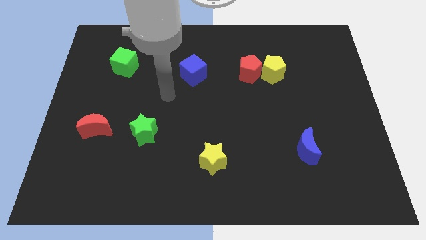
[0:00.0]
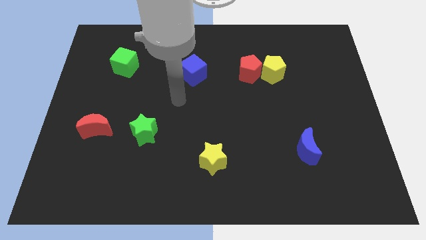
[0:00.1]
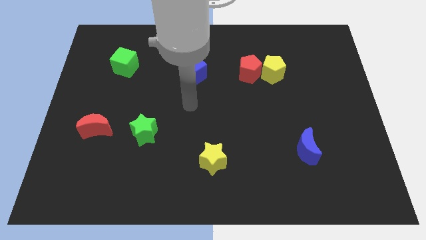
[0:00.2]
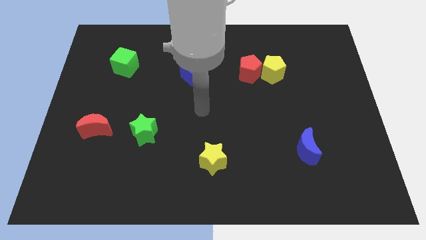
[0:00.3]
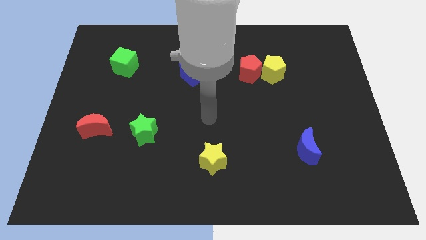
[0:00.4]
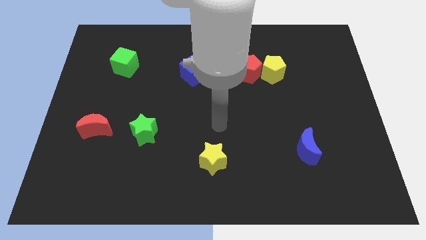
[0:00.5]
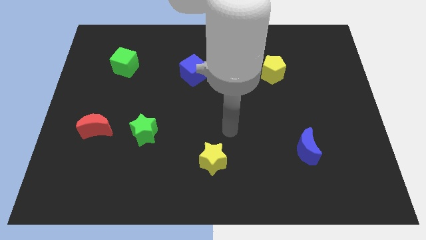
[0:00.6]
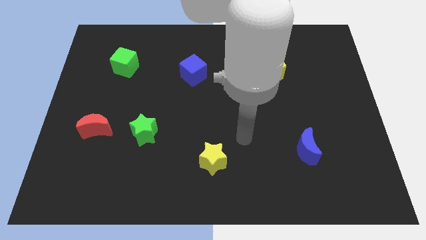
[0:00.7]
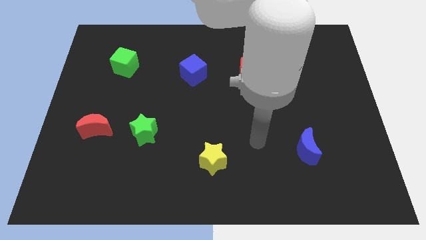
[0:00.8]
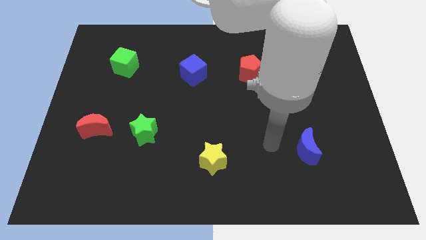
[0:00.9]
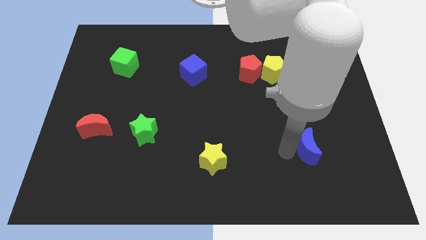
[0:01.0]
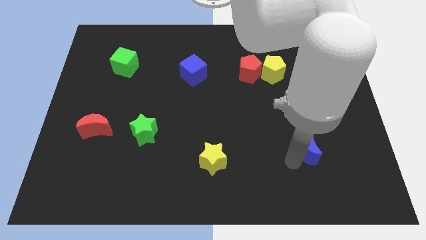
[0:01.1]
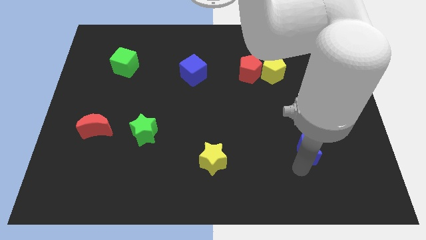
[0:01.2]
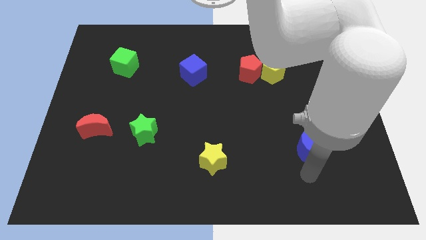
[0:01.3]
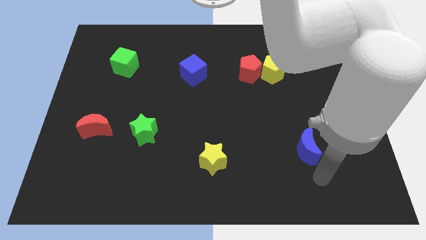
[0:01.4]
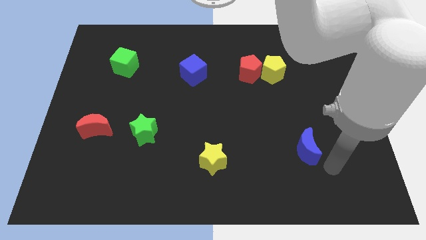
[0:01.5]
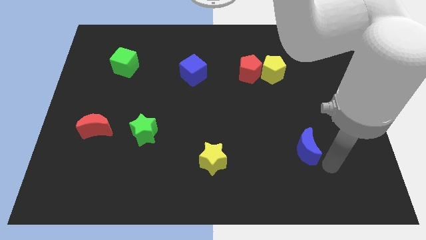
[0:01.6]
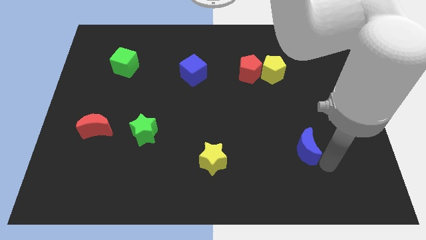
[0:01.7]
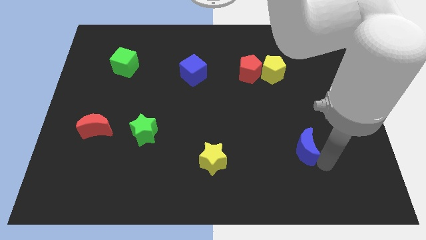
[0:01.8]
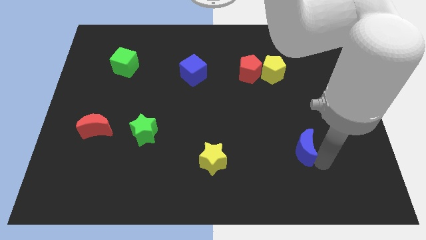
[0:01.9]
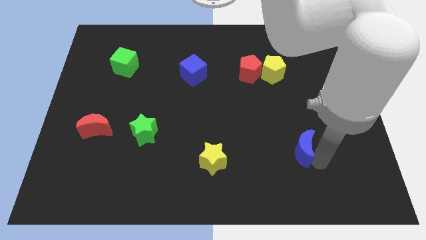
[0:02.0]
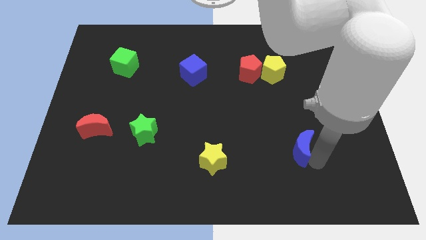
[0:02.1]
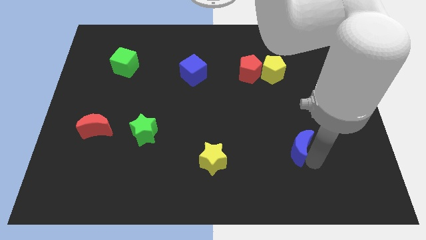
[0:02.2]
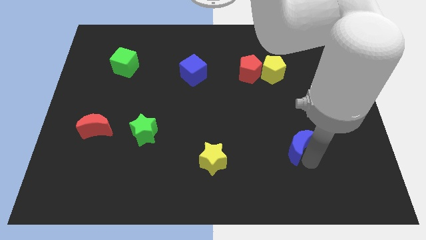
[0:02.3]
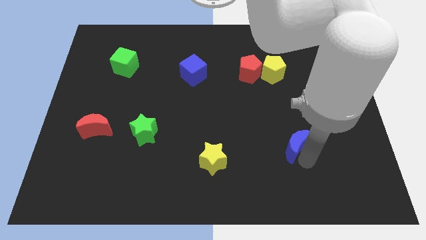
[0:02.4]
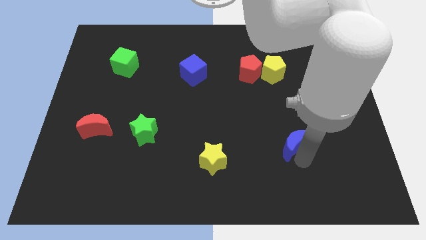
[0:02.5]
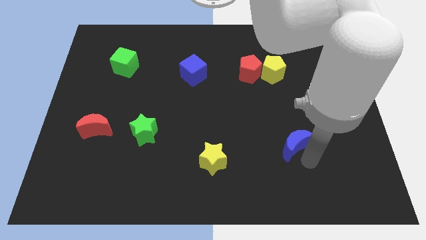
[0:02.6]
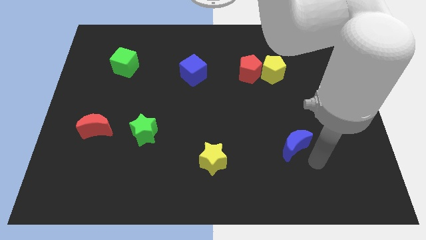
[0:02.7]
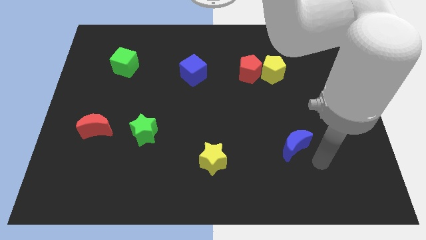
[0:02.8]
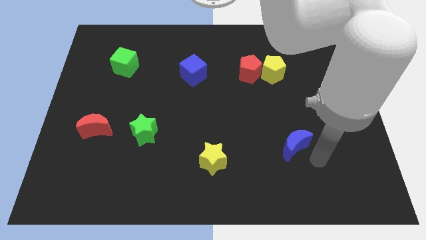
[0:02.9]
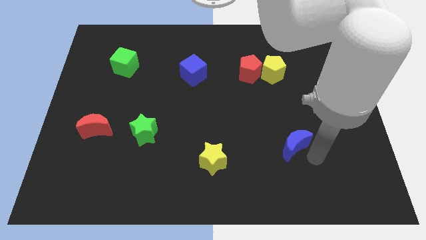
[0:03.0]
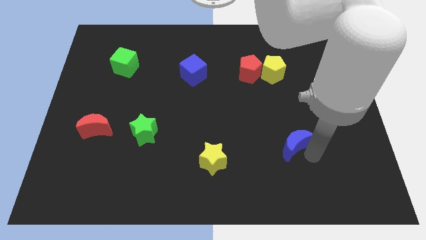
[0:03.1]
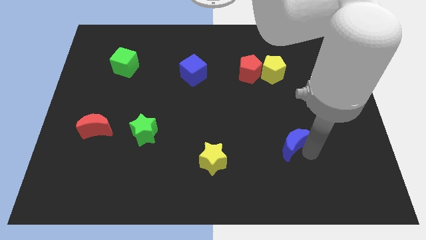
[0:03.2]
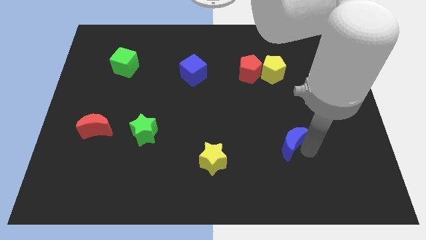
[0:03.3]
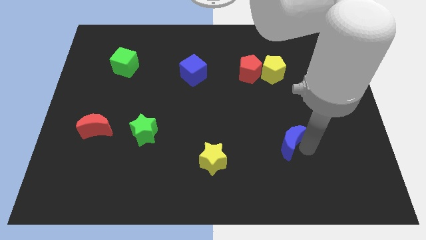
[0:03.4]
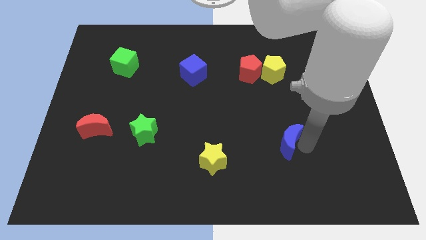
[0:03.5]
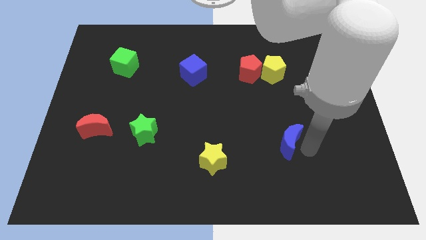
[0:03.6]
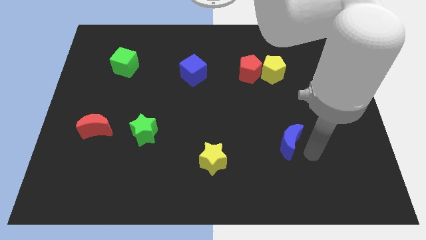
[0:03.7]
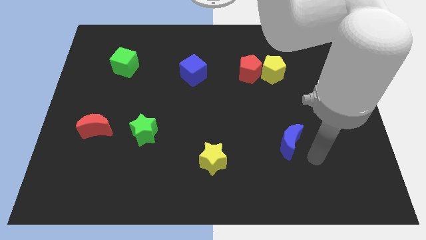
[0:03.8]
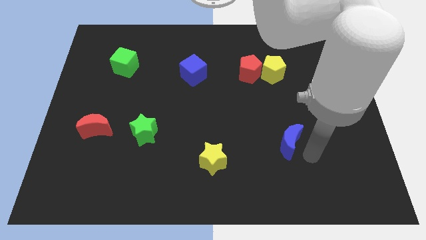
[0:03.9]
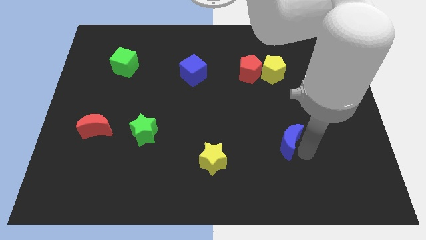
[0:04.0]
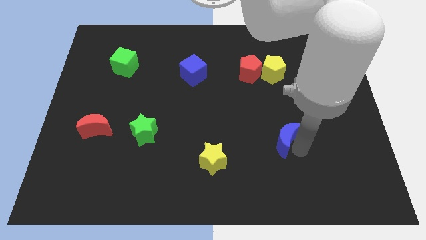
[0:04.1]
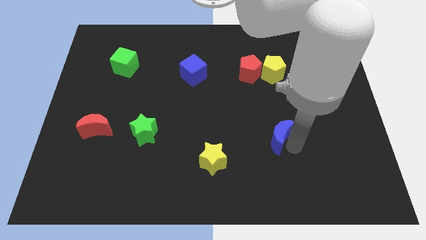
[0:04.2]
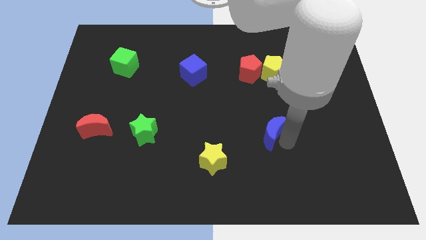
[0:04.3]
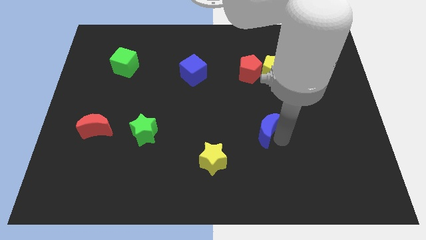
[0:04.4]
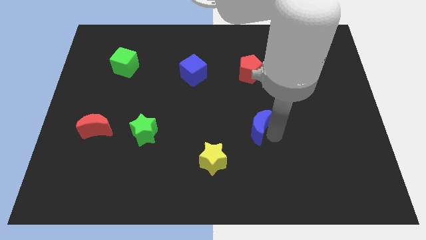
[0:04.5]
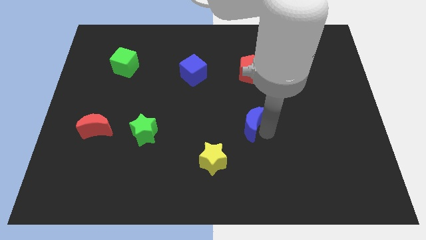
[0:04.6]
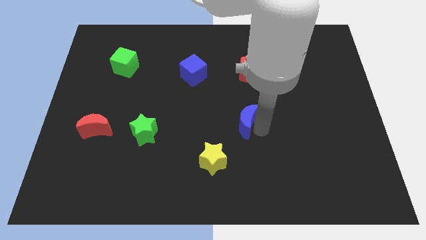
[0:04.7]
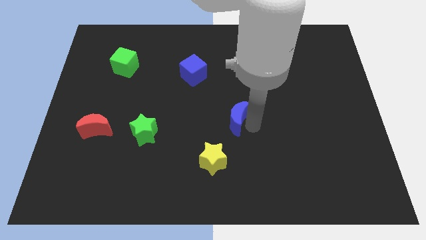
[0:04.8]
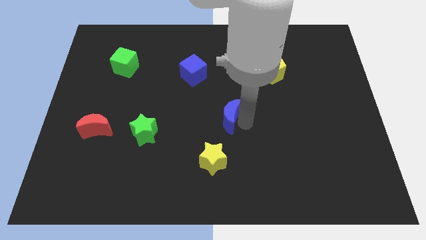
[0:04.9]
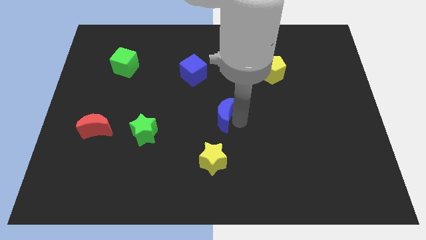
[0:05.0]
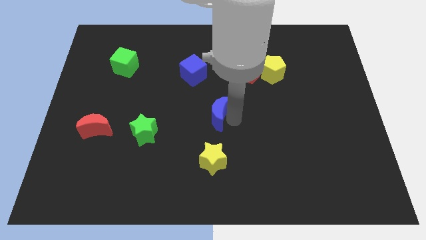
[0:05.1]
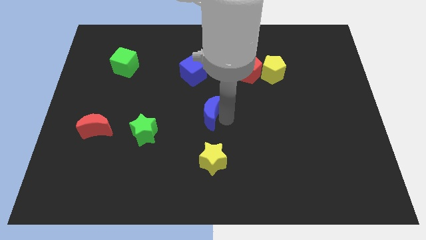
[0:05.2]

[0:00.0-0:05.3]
move the blue moon to the bottom of the blue cube

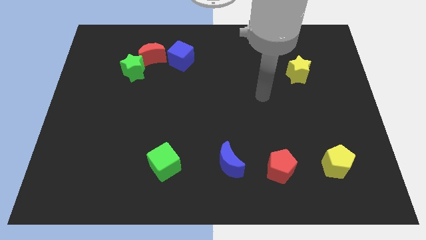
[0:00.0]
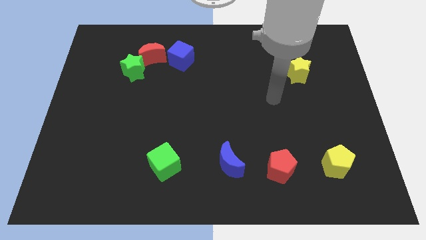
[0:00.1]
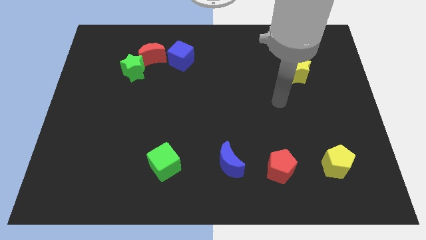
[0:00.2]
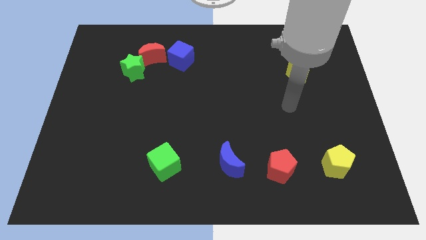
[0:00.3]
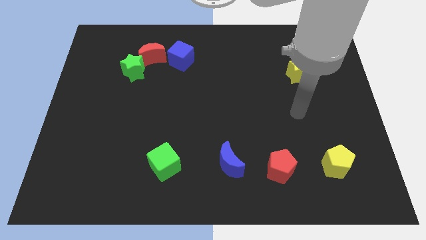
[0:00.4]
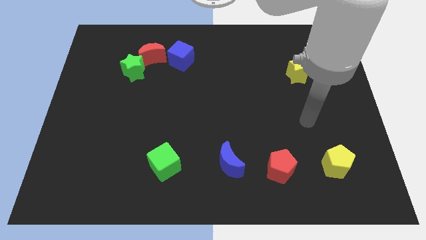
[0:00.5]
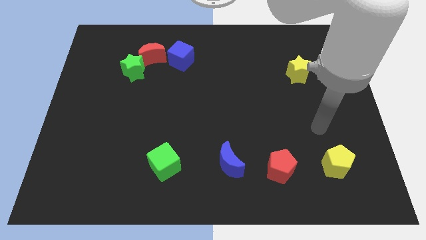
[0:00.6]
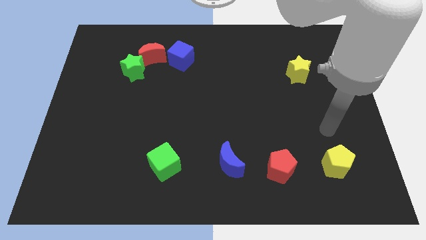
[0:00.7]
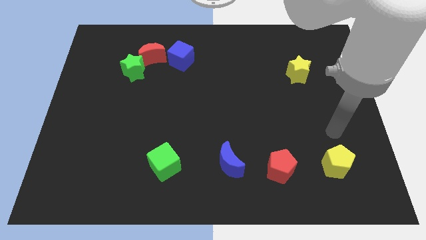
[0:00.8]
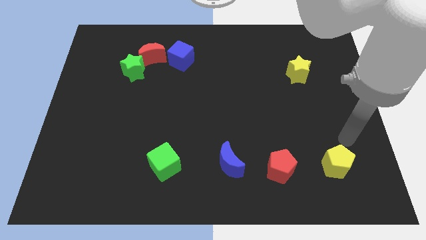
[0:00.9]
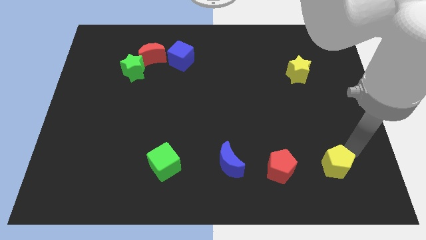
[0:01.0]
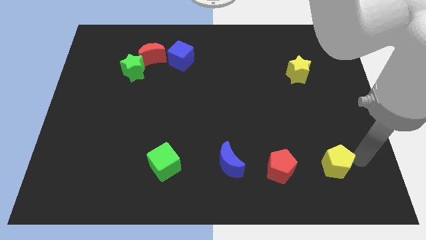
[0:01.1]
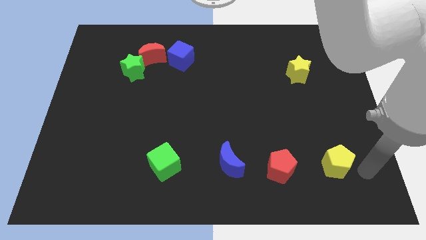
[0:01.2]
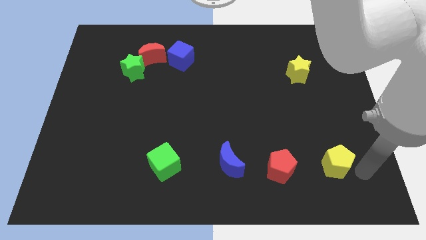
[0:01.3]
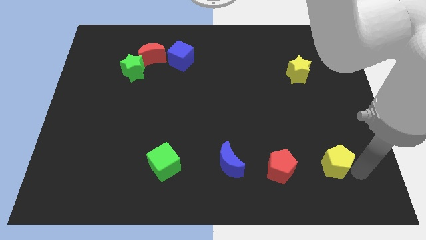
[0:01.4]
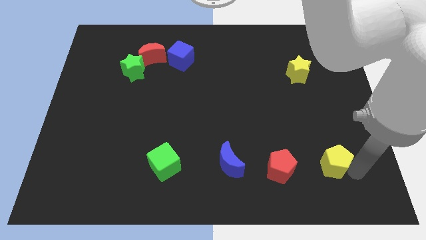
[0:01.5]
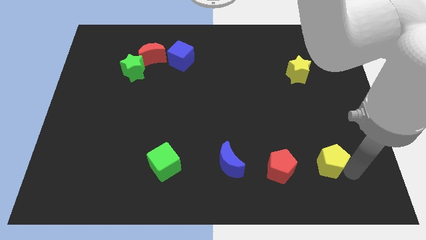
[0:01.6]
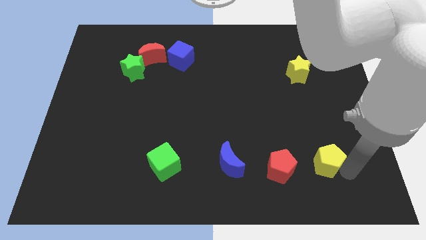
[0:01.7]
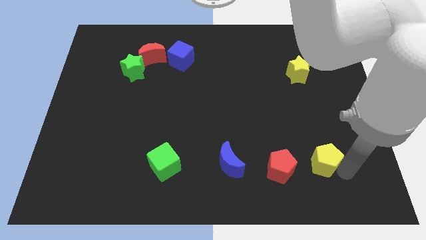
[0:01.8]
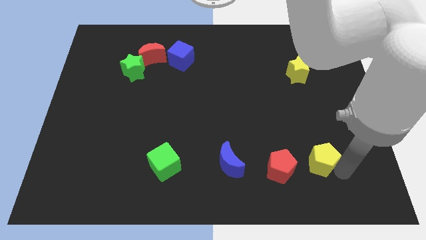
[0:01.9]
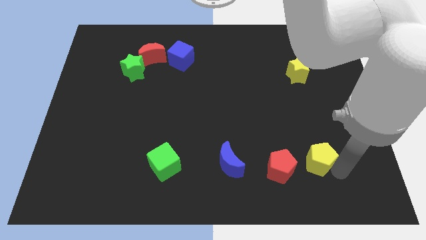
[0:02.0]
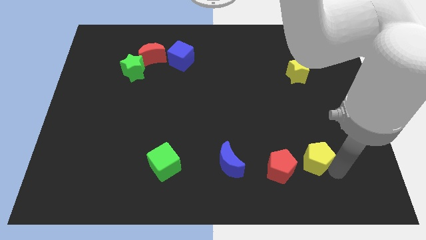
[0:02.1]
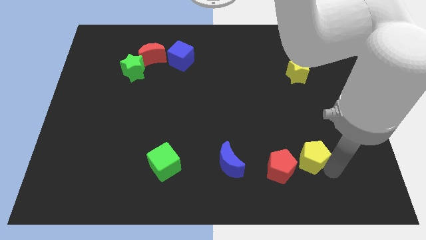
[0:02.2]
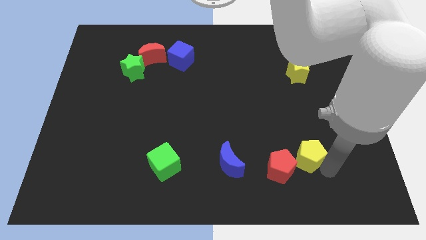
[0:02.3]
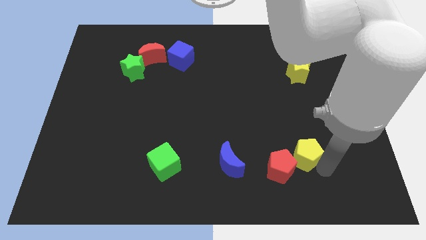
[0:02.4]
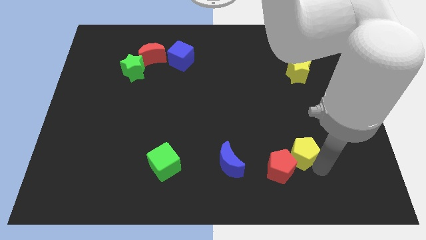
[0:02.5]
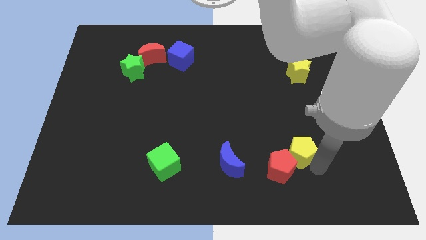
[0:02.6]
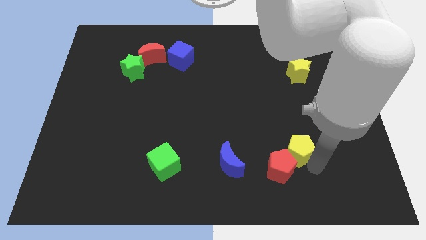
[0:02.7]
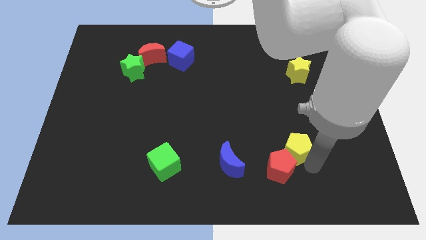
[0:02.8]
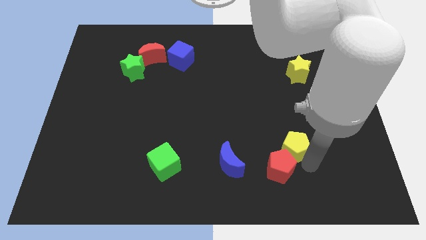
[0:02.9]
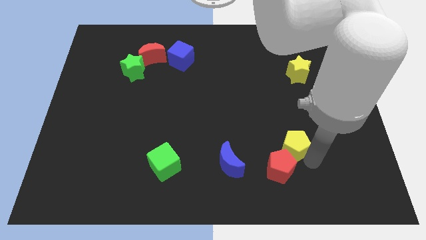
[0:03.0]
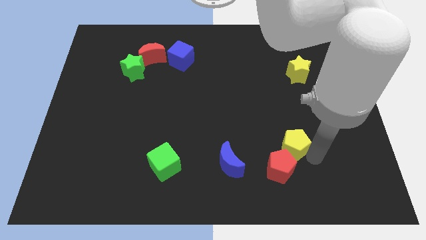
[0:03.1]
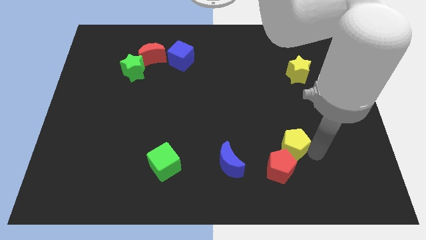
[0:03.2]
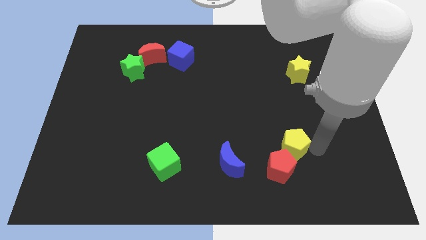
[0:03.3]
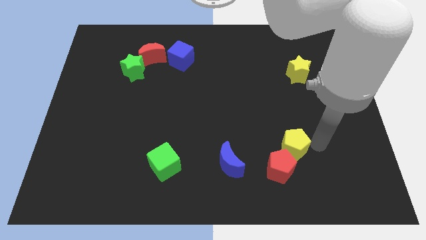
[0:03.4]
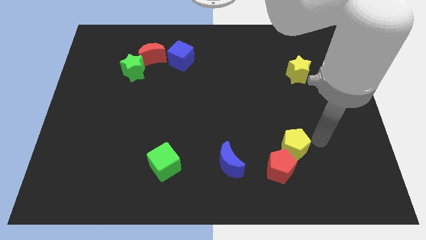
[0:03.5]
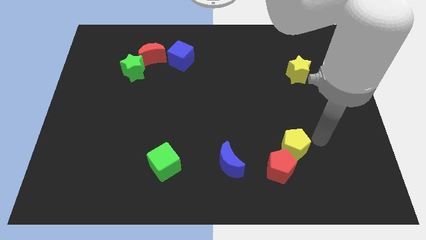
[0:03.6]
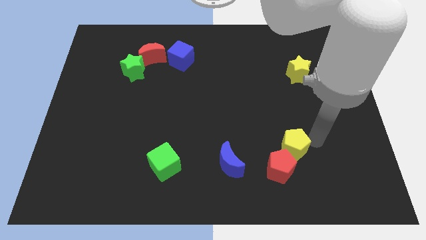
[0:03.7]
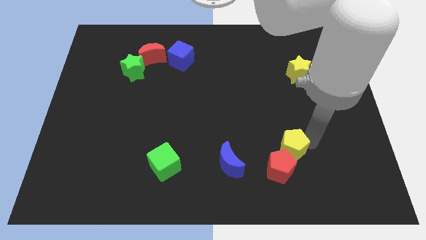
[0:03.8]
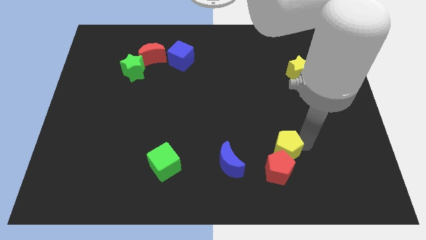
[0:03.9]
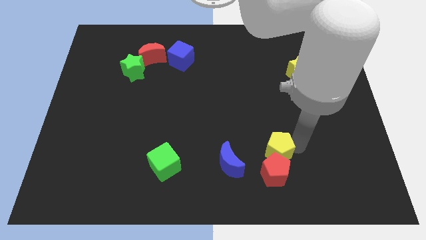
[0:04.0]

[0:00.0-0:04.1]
push the yellow pentagon to the top left of the red pentagon
